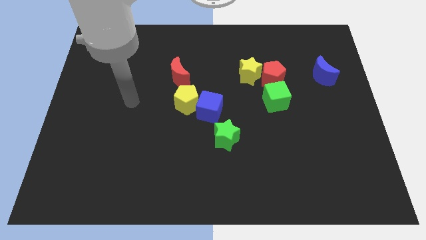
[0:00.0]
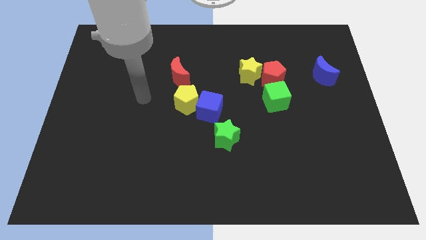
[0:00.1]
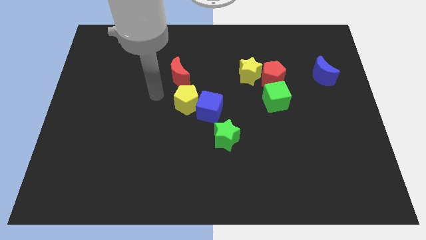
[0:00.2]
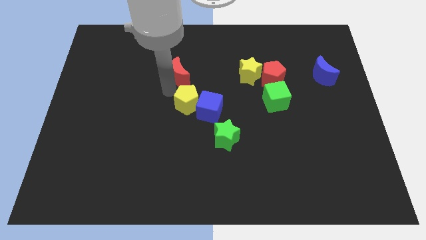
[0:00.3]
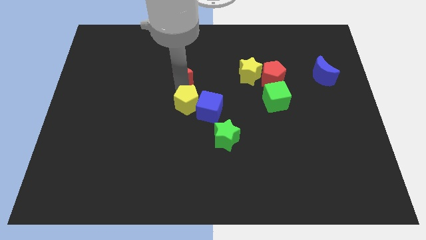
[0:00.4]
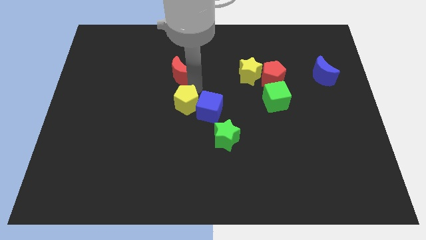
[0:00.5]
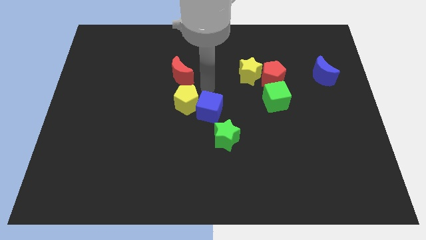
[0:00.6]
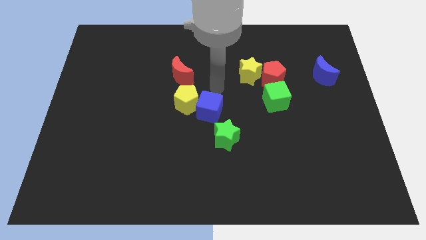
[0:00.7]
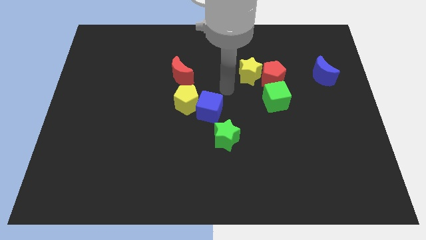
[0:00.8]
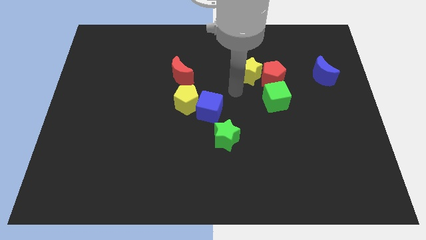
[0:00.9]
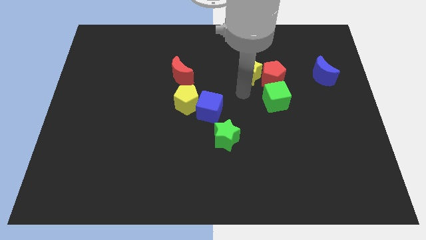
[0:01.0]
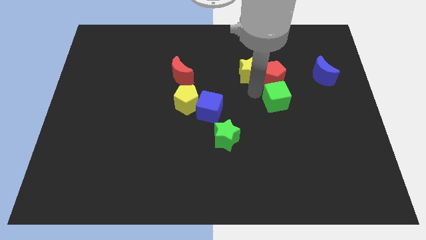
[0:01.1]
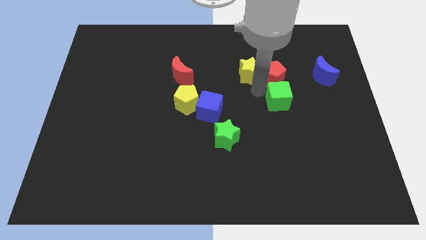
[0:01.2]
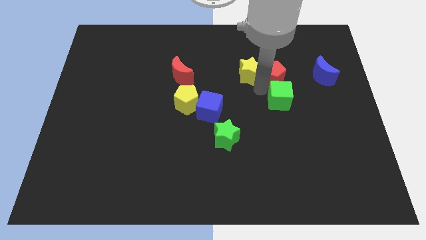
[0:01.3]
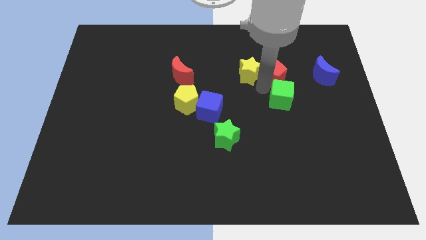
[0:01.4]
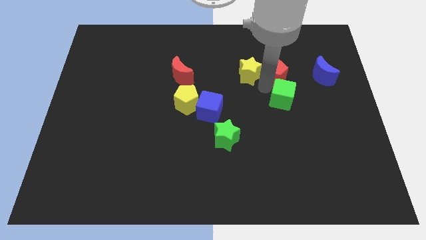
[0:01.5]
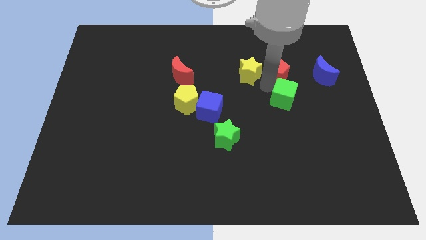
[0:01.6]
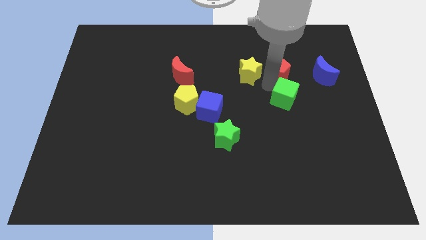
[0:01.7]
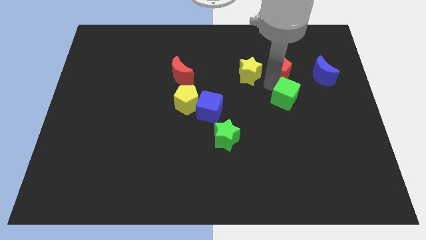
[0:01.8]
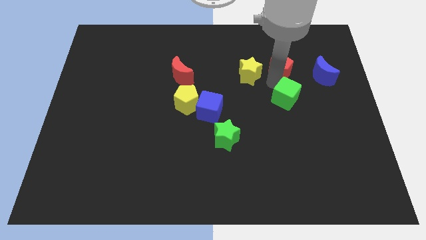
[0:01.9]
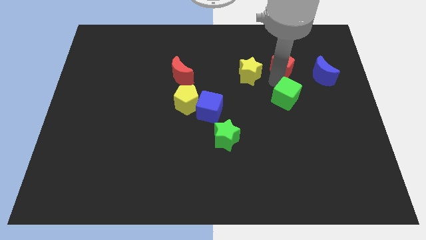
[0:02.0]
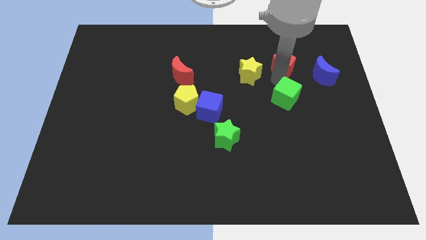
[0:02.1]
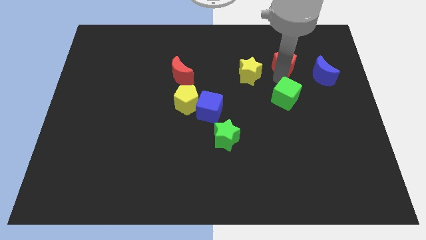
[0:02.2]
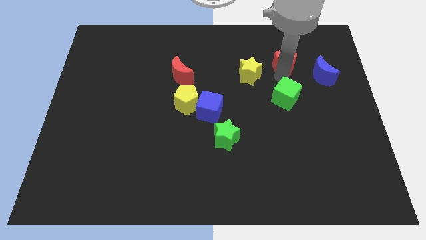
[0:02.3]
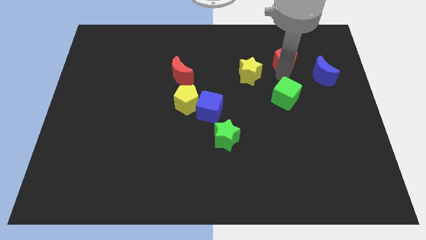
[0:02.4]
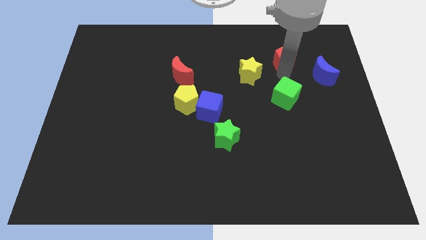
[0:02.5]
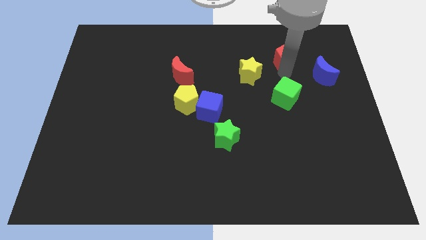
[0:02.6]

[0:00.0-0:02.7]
separate the red pentagon from the yellow star and green cube

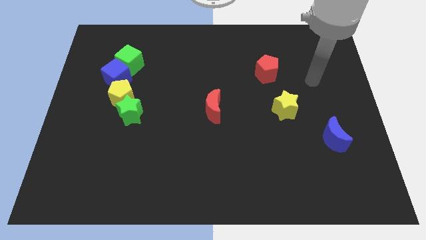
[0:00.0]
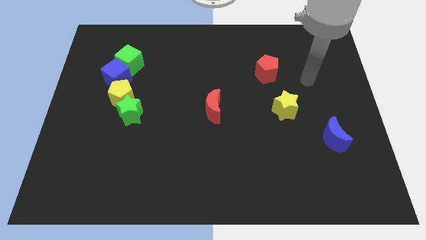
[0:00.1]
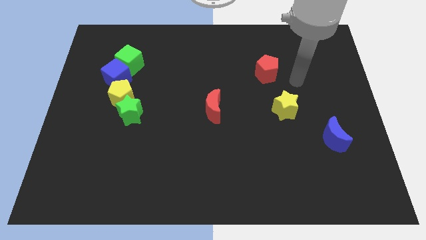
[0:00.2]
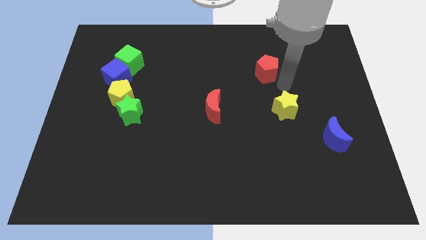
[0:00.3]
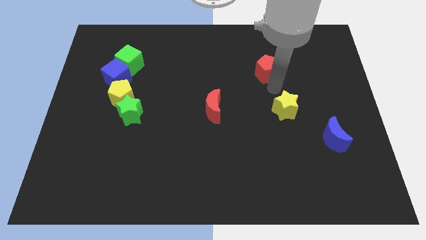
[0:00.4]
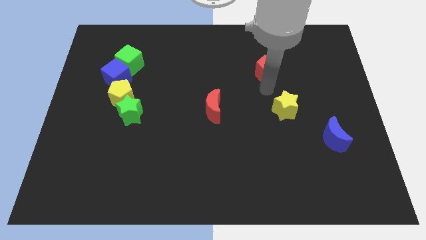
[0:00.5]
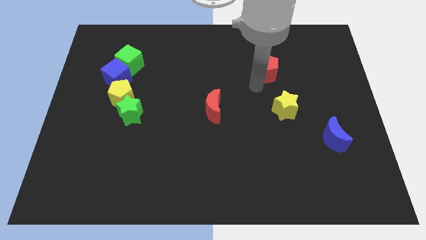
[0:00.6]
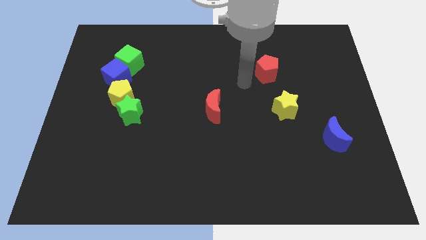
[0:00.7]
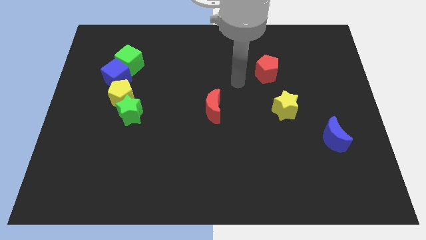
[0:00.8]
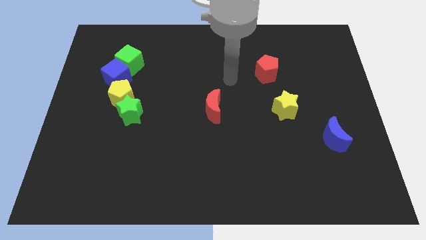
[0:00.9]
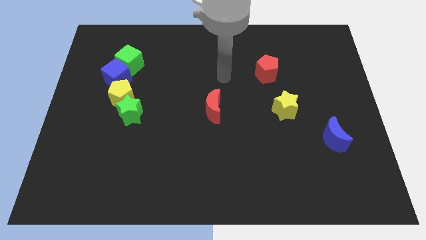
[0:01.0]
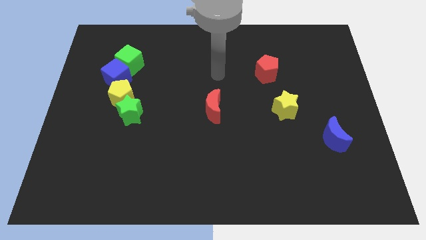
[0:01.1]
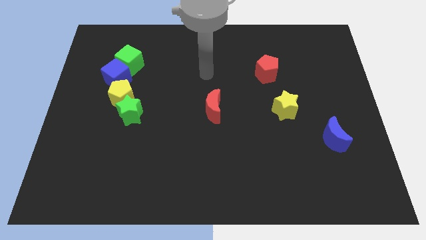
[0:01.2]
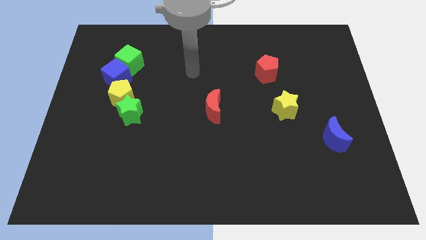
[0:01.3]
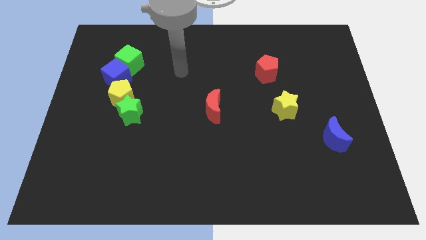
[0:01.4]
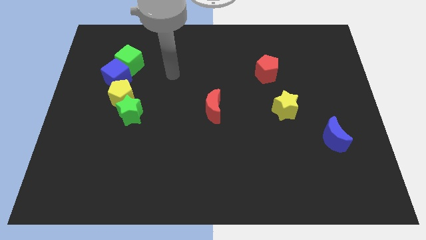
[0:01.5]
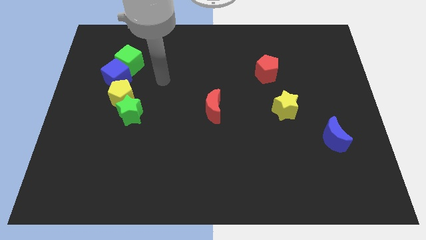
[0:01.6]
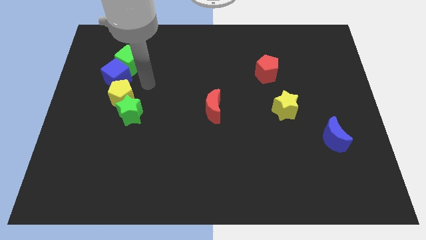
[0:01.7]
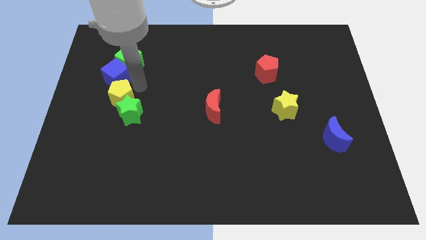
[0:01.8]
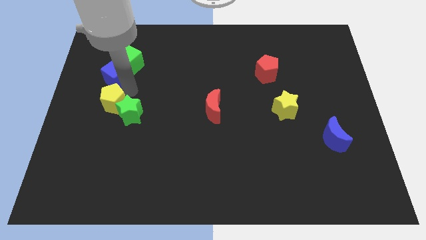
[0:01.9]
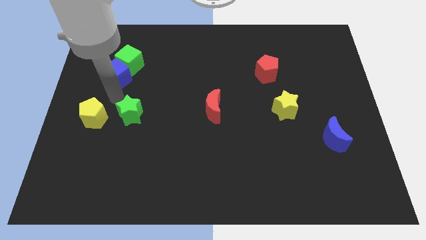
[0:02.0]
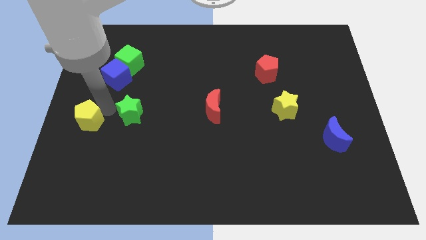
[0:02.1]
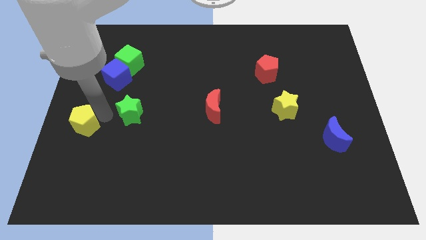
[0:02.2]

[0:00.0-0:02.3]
move the green star away from the yellow pentagon

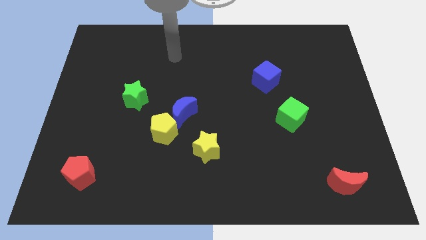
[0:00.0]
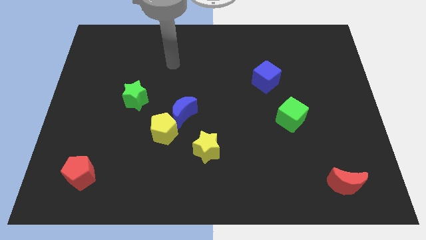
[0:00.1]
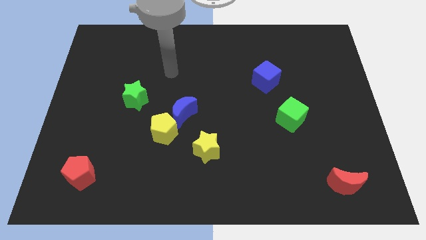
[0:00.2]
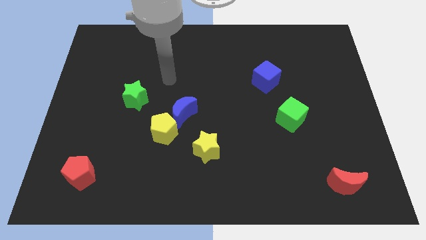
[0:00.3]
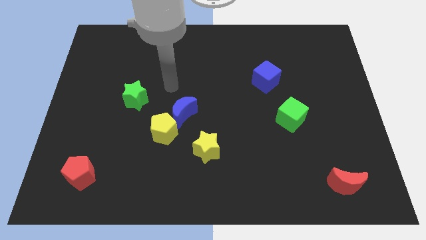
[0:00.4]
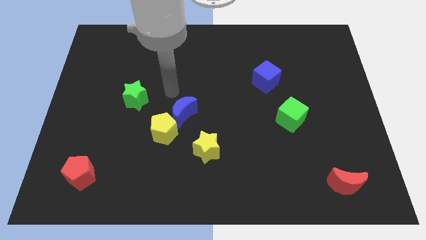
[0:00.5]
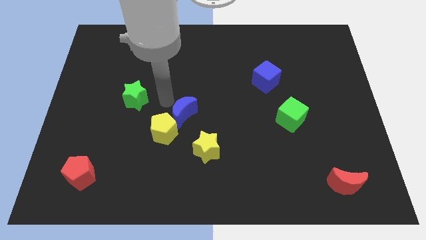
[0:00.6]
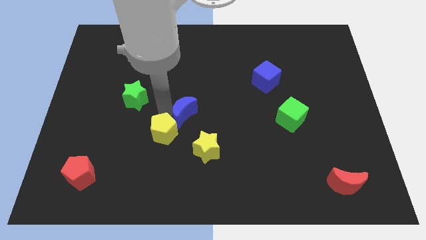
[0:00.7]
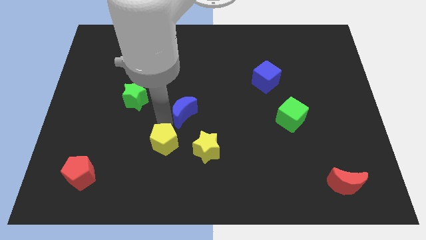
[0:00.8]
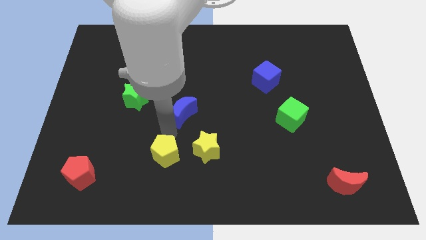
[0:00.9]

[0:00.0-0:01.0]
separate the blue moon from the yellow pentagon

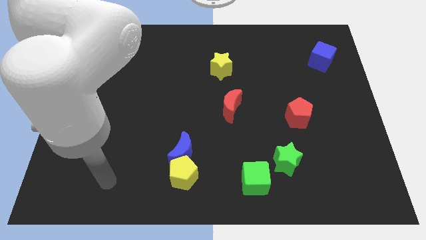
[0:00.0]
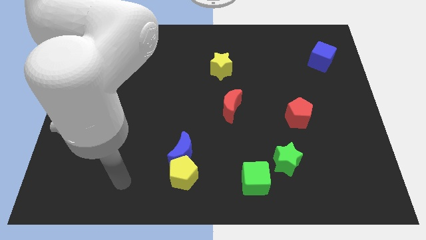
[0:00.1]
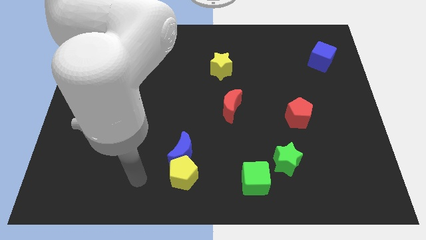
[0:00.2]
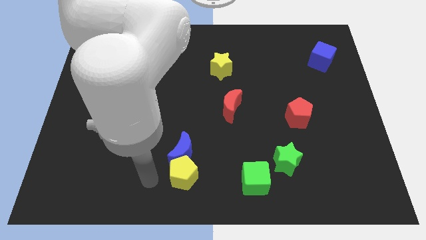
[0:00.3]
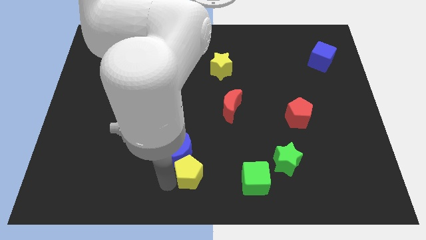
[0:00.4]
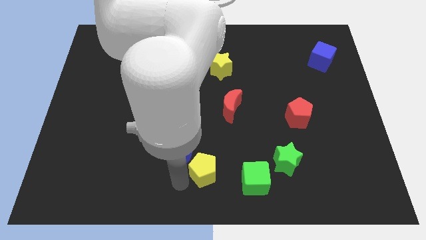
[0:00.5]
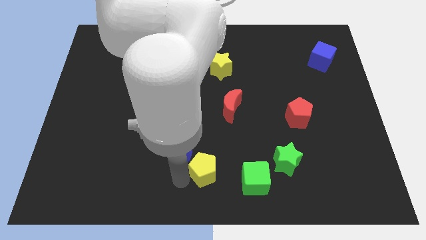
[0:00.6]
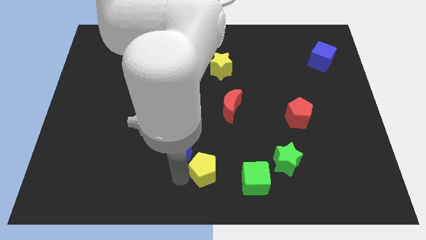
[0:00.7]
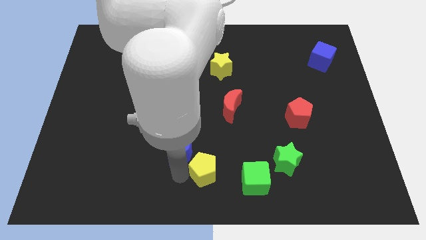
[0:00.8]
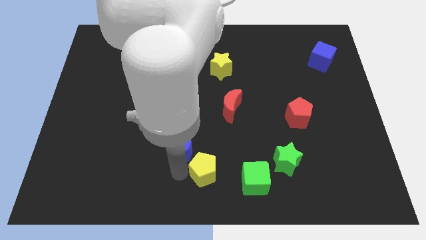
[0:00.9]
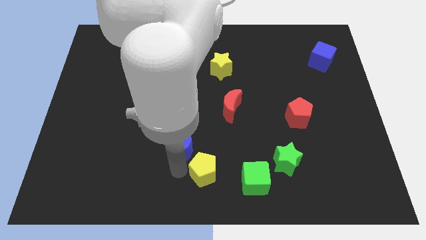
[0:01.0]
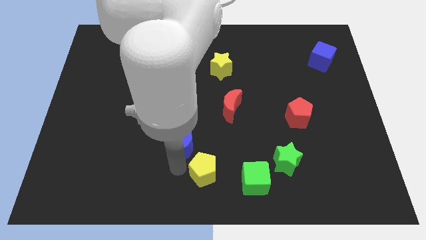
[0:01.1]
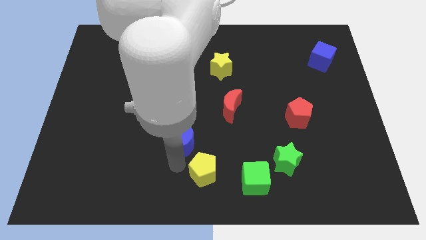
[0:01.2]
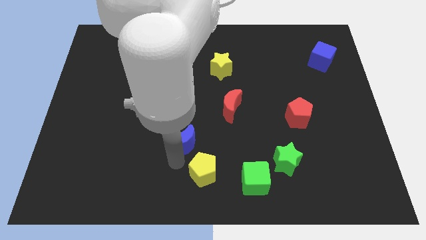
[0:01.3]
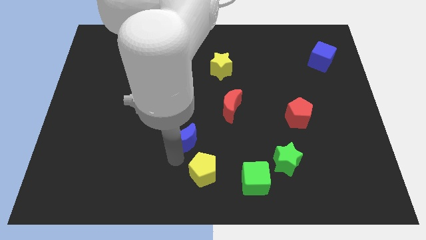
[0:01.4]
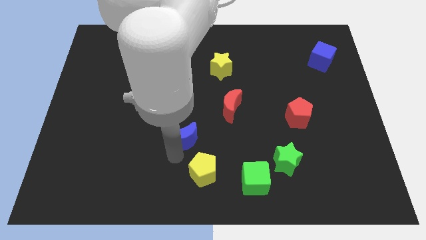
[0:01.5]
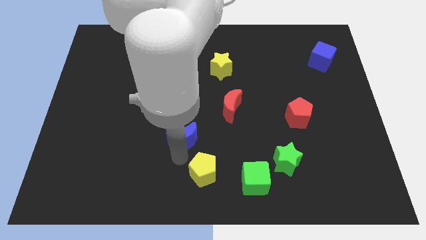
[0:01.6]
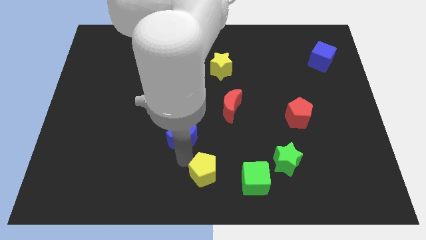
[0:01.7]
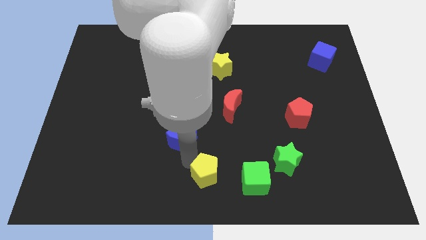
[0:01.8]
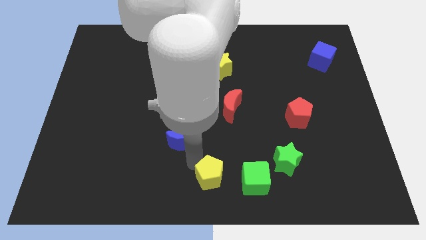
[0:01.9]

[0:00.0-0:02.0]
pull the blue moon apart from the yellow pentagon

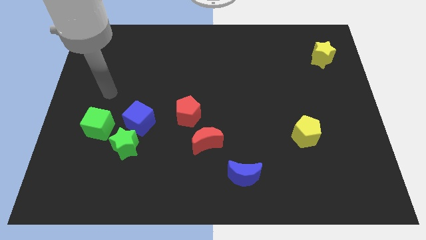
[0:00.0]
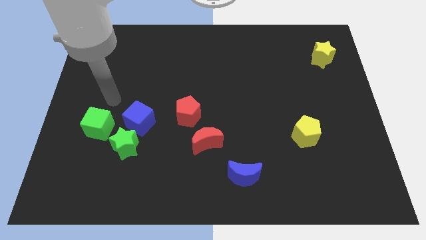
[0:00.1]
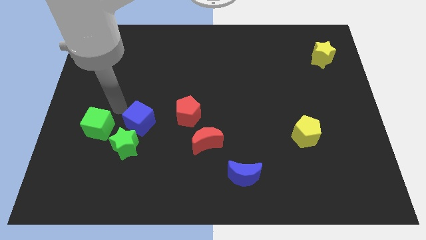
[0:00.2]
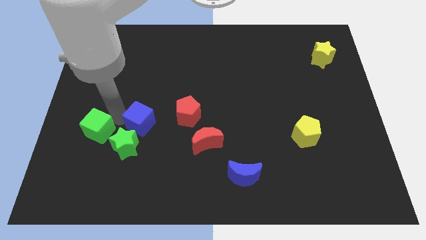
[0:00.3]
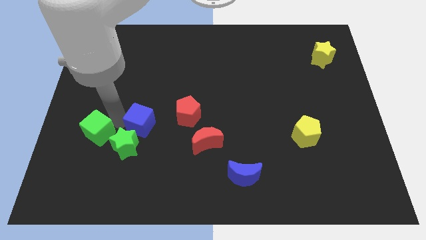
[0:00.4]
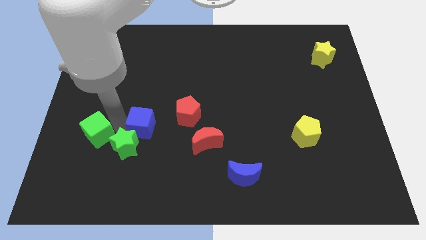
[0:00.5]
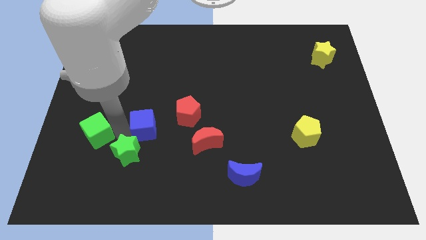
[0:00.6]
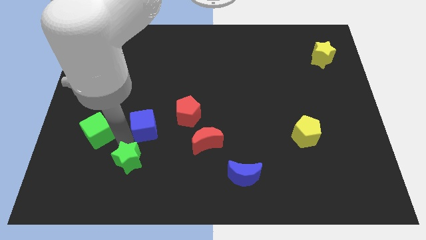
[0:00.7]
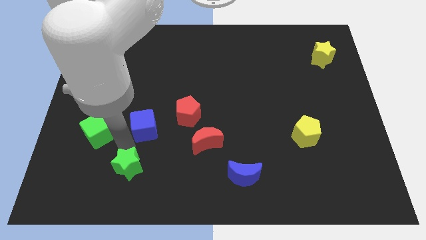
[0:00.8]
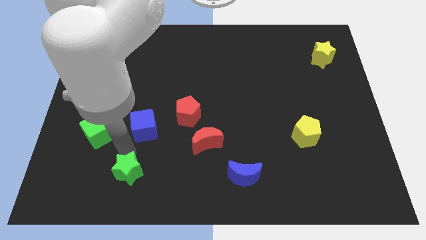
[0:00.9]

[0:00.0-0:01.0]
separate the green star from the blue cube and green cube

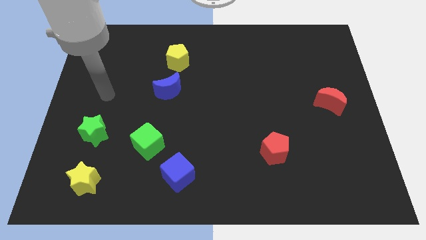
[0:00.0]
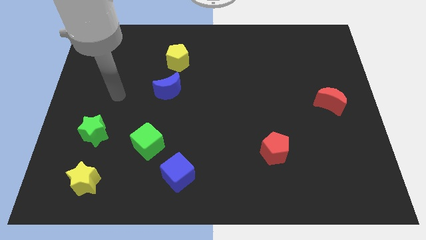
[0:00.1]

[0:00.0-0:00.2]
separate the blue cube from the green cube

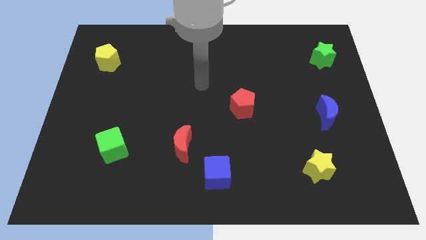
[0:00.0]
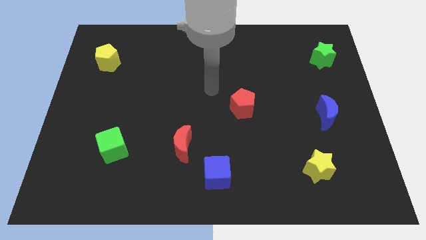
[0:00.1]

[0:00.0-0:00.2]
move the red moon away from the blue cube
